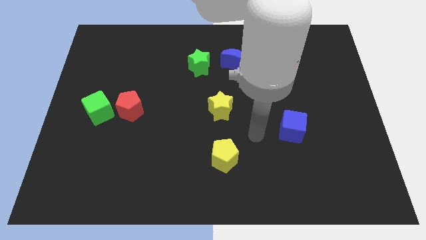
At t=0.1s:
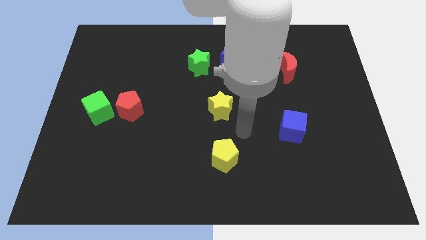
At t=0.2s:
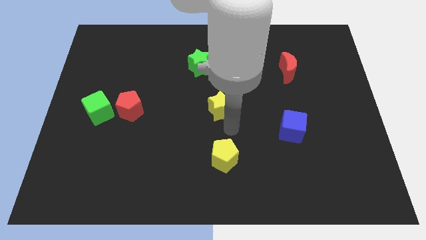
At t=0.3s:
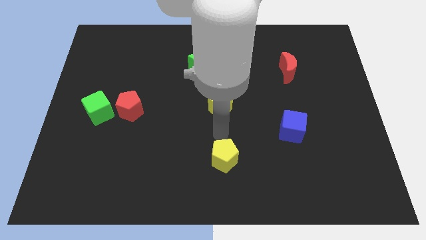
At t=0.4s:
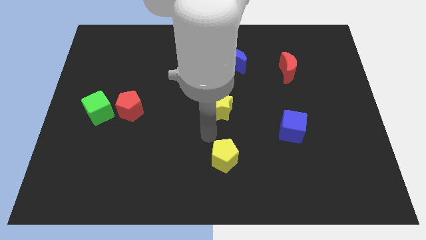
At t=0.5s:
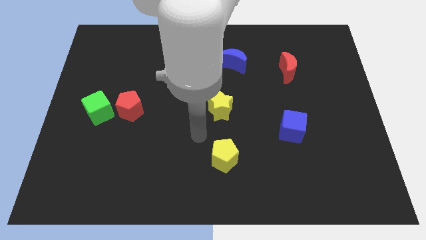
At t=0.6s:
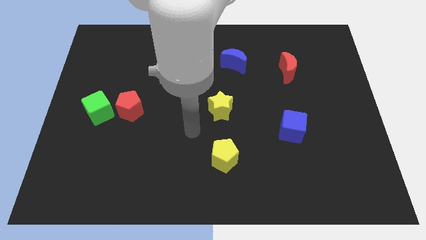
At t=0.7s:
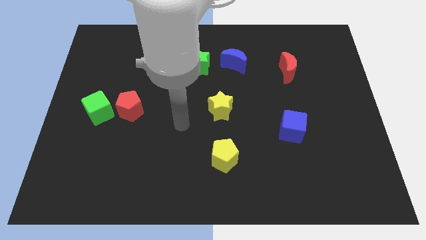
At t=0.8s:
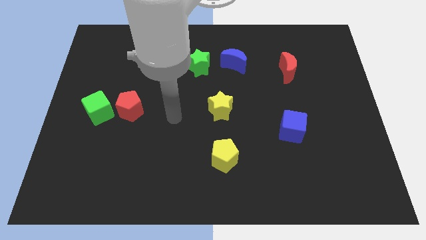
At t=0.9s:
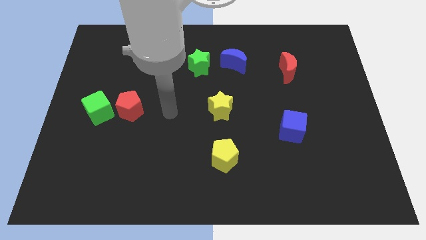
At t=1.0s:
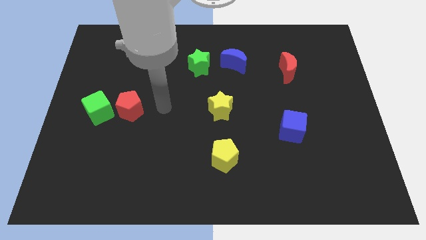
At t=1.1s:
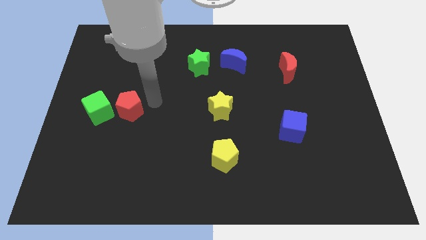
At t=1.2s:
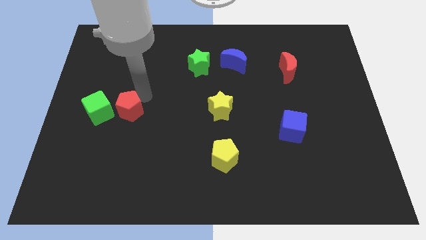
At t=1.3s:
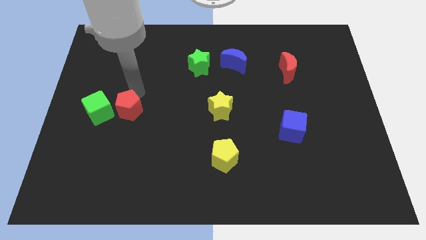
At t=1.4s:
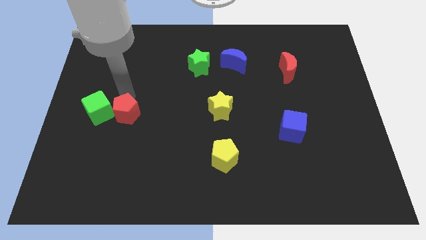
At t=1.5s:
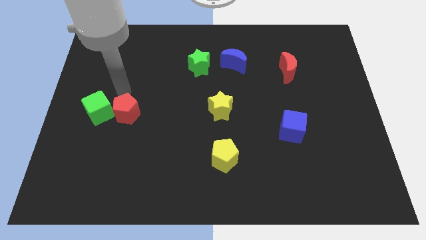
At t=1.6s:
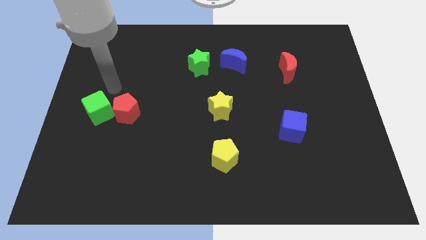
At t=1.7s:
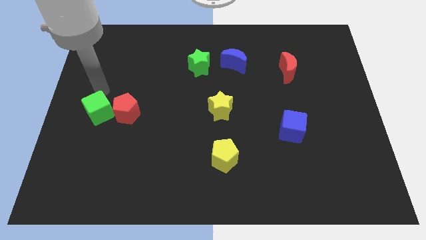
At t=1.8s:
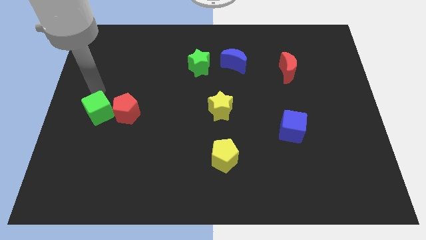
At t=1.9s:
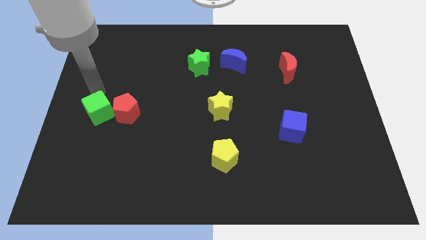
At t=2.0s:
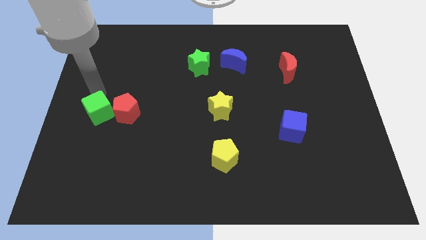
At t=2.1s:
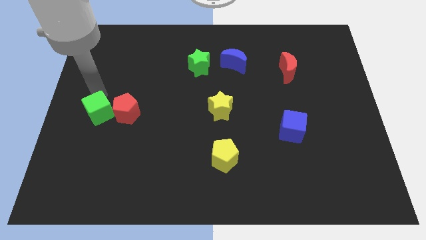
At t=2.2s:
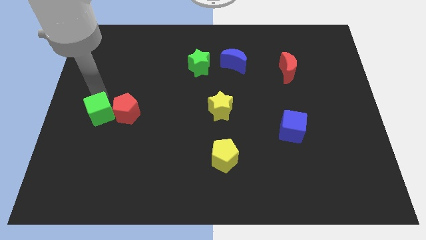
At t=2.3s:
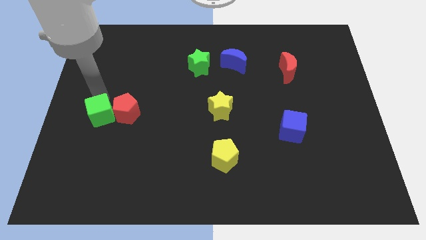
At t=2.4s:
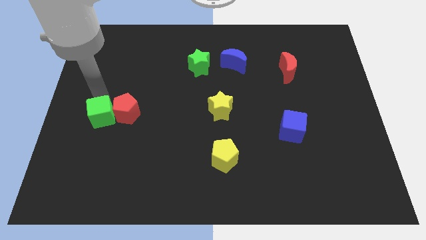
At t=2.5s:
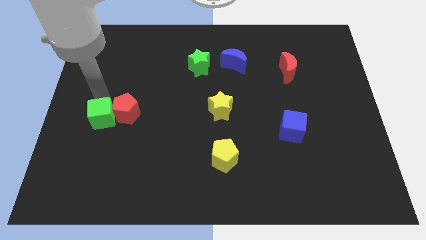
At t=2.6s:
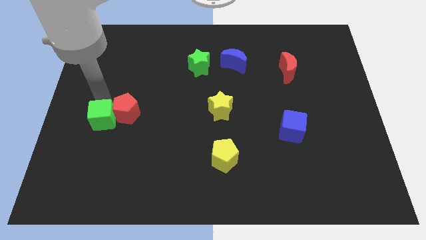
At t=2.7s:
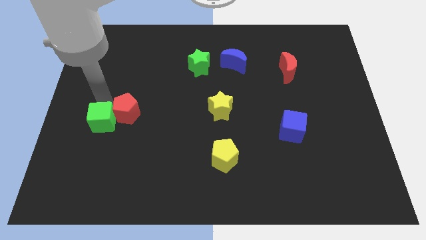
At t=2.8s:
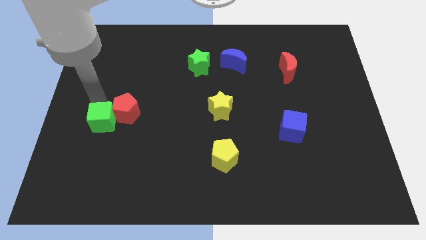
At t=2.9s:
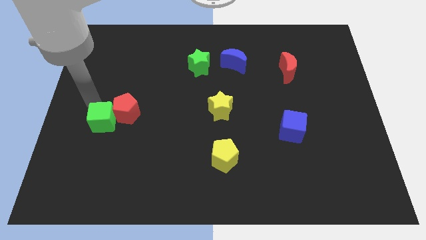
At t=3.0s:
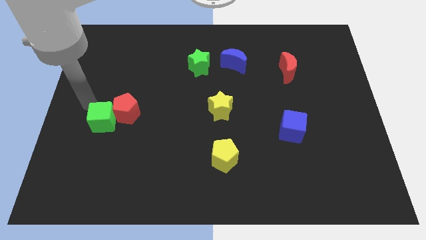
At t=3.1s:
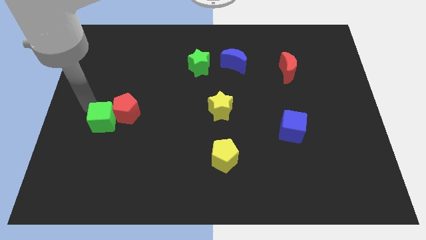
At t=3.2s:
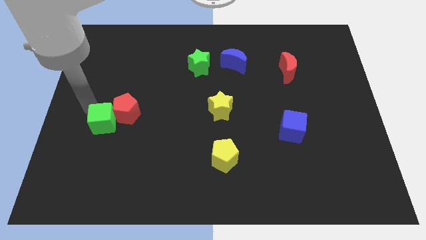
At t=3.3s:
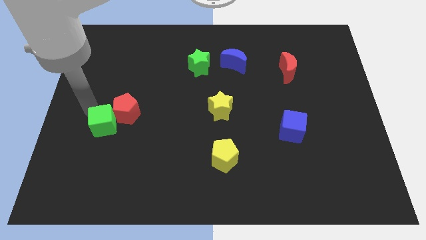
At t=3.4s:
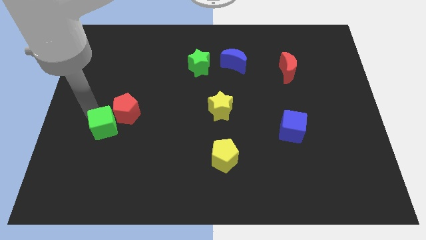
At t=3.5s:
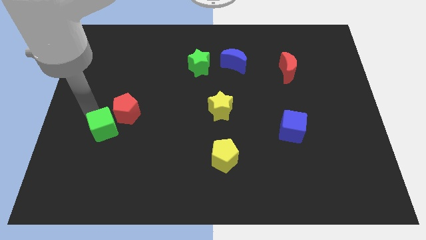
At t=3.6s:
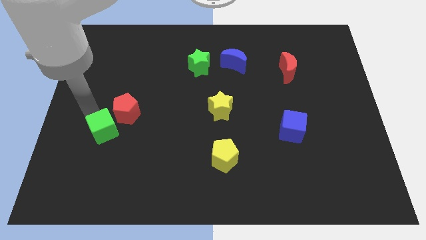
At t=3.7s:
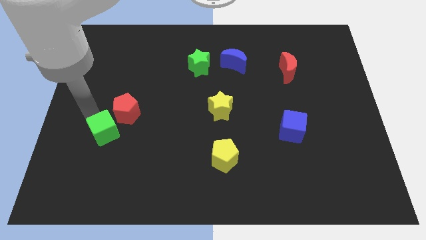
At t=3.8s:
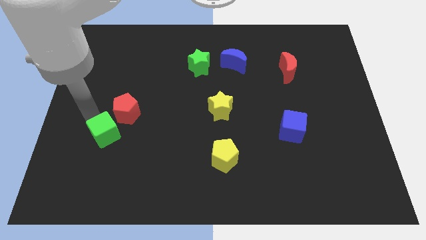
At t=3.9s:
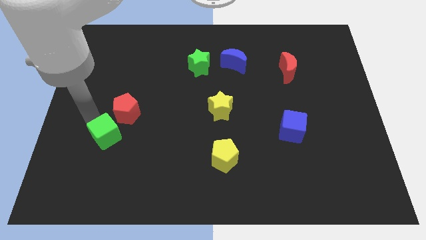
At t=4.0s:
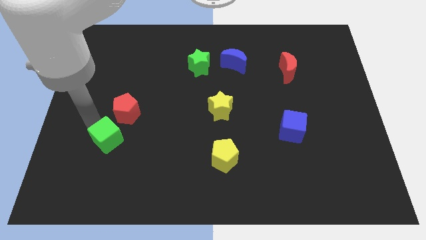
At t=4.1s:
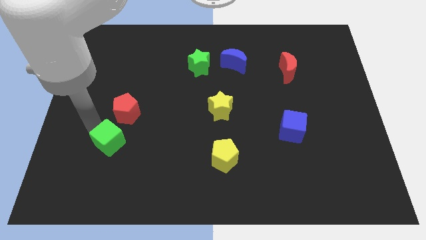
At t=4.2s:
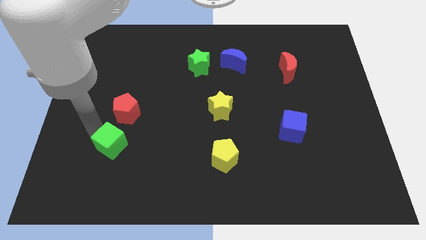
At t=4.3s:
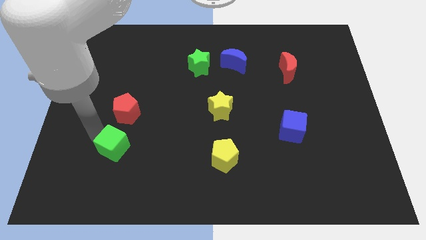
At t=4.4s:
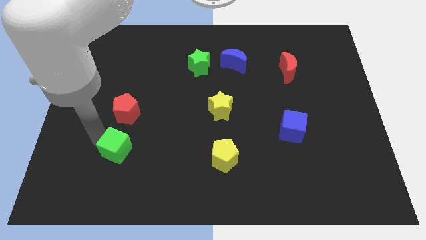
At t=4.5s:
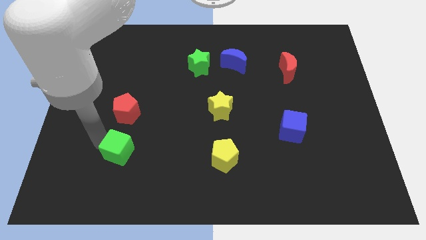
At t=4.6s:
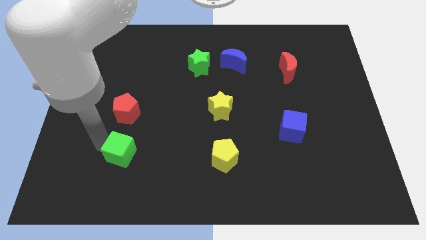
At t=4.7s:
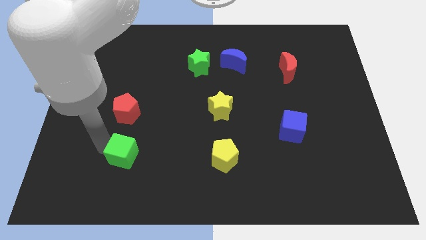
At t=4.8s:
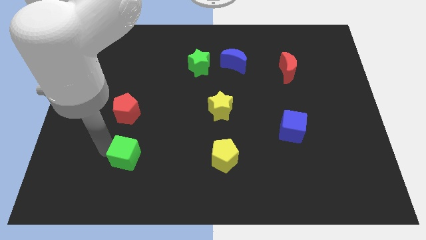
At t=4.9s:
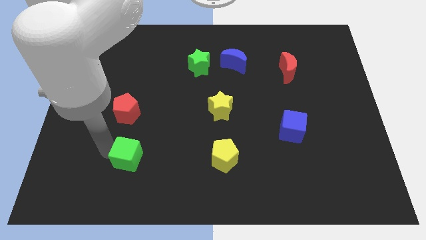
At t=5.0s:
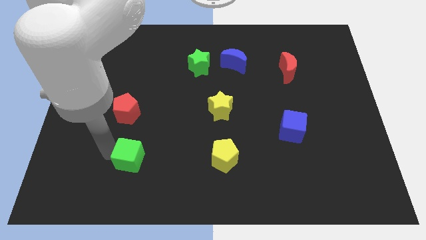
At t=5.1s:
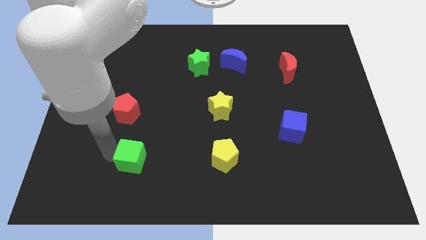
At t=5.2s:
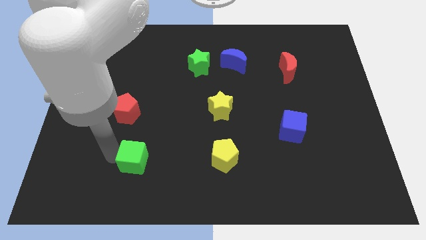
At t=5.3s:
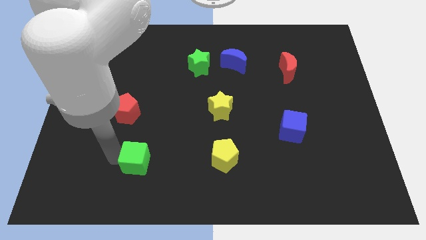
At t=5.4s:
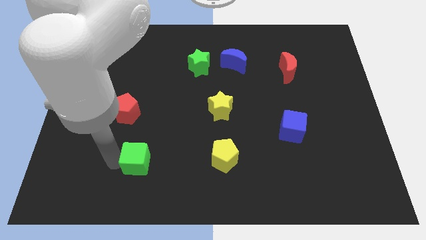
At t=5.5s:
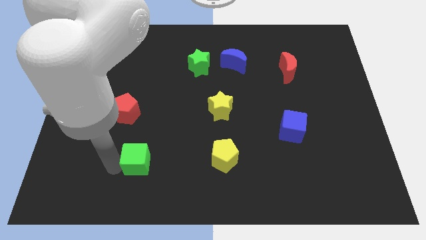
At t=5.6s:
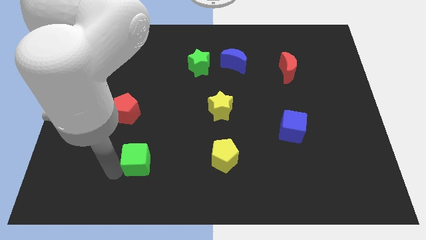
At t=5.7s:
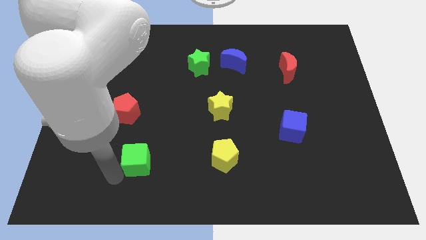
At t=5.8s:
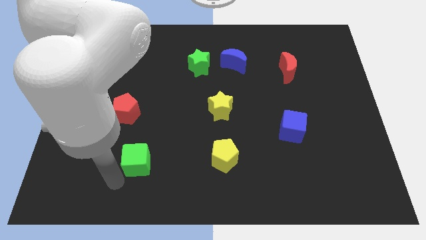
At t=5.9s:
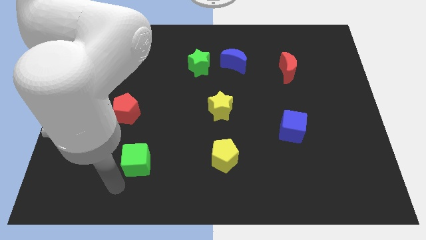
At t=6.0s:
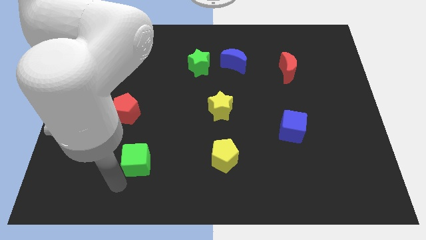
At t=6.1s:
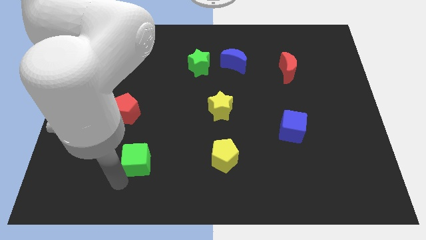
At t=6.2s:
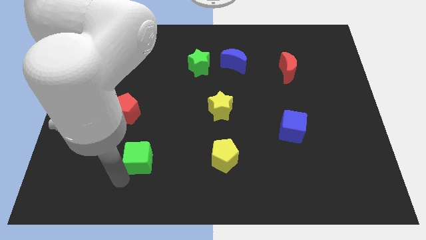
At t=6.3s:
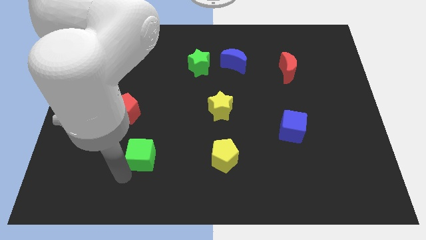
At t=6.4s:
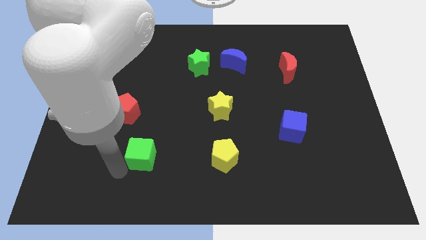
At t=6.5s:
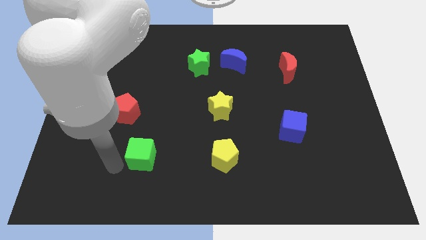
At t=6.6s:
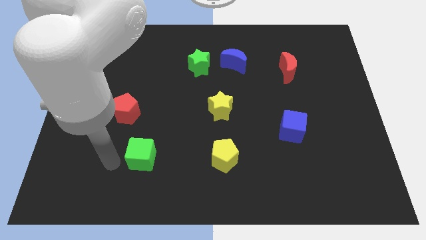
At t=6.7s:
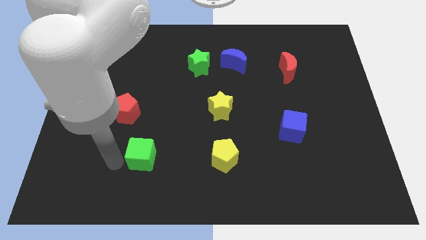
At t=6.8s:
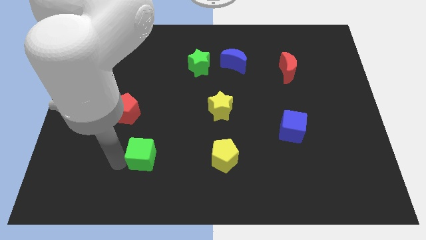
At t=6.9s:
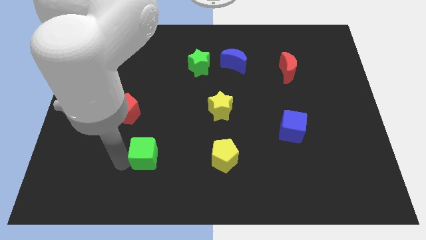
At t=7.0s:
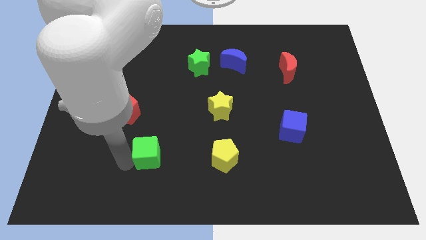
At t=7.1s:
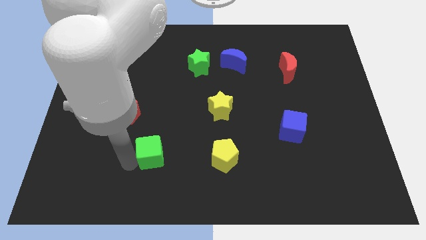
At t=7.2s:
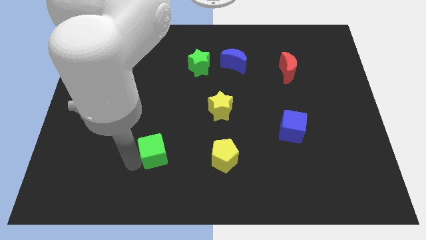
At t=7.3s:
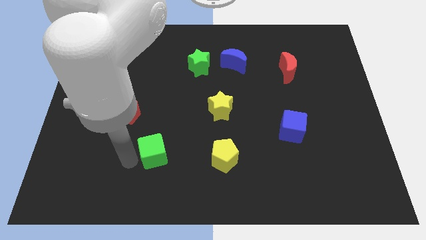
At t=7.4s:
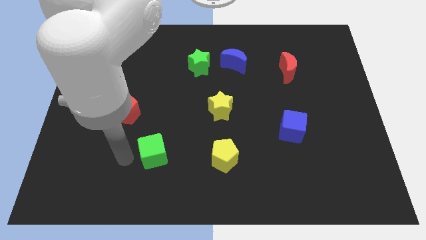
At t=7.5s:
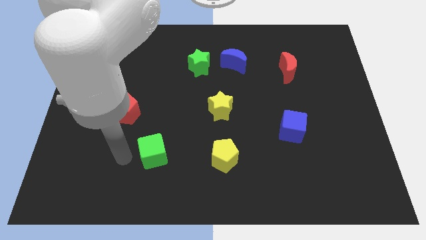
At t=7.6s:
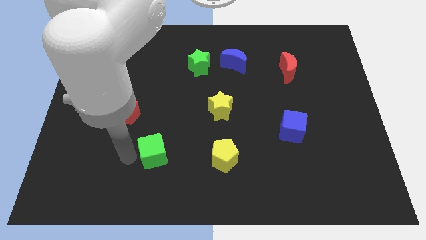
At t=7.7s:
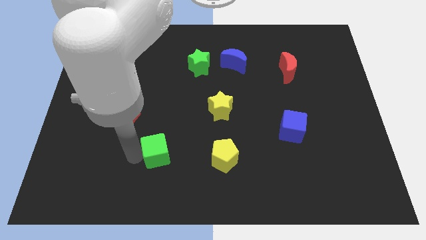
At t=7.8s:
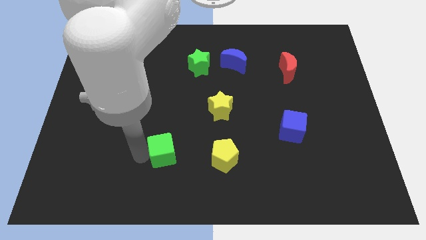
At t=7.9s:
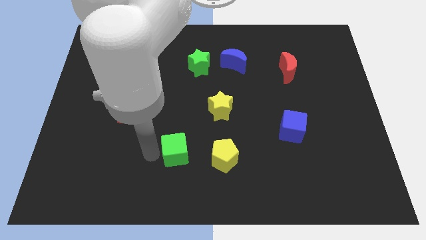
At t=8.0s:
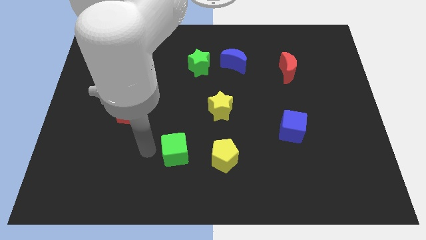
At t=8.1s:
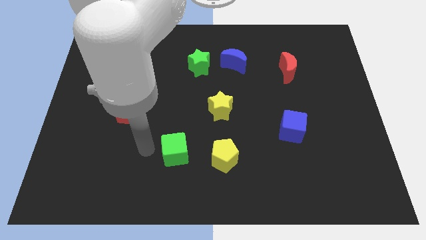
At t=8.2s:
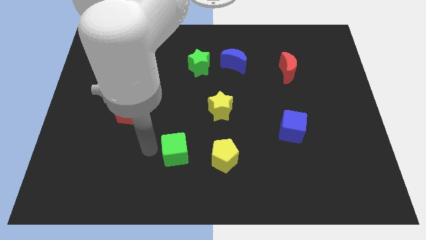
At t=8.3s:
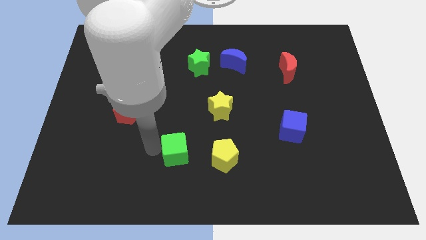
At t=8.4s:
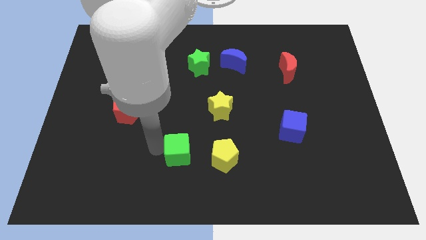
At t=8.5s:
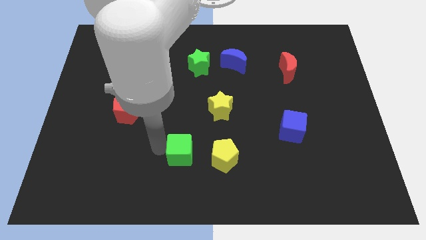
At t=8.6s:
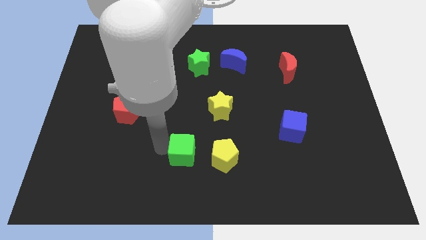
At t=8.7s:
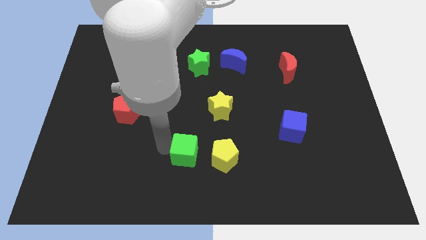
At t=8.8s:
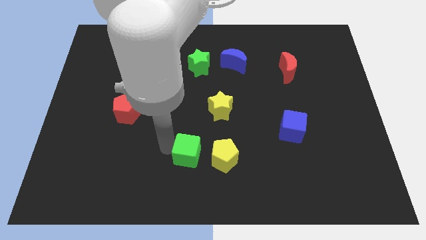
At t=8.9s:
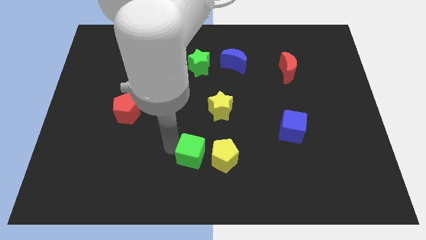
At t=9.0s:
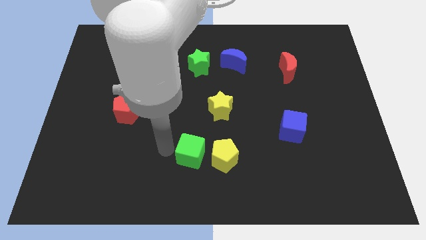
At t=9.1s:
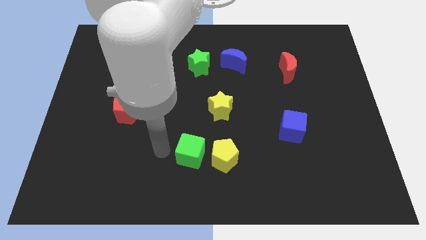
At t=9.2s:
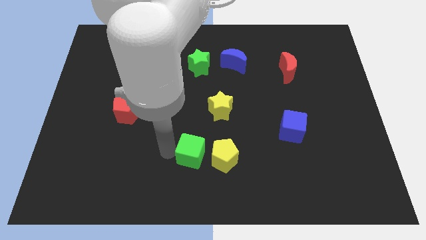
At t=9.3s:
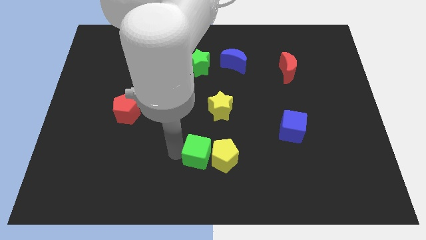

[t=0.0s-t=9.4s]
slide the green cube to the yellow pentagon
